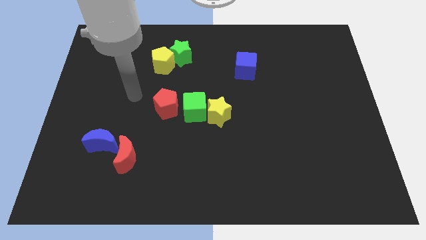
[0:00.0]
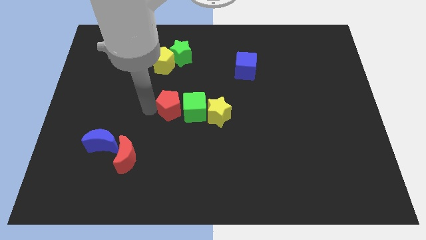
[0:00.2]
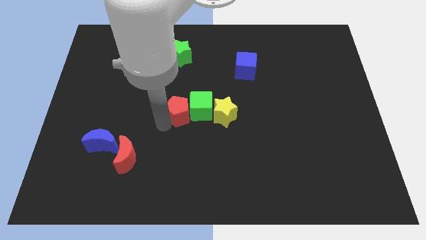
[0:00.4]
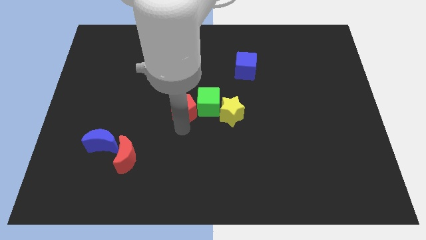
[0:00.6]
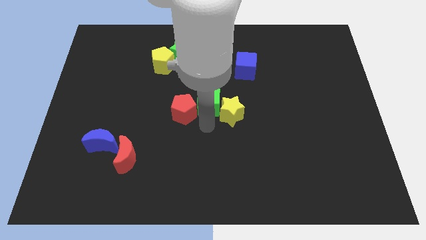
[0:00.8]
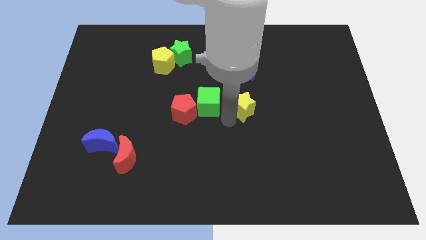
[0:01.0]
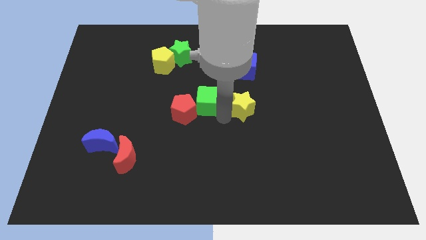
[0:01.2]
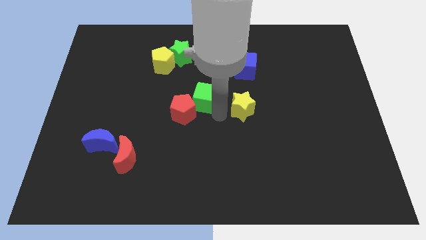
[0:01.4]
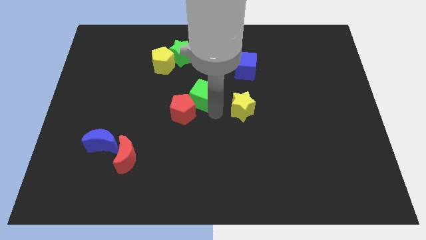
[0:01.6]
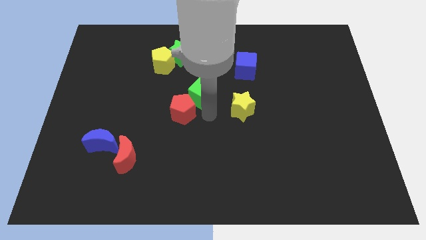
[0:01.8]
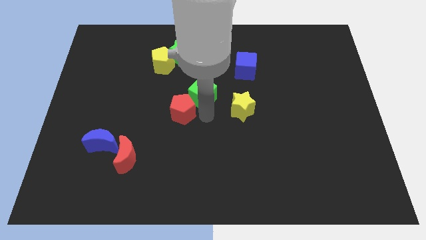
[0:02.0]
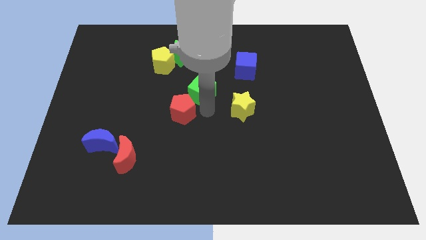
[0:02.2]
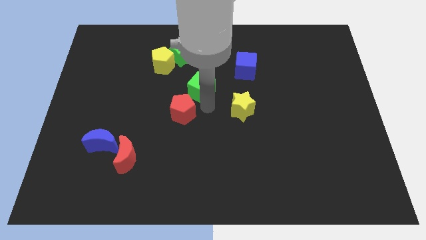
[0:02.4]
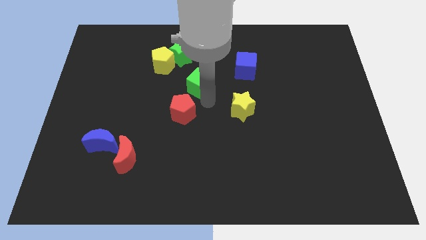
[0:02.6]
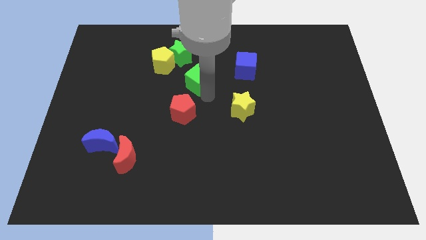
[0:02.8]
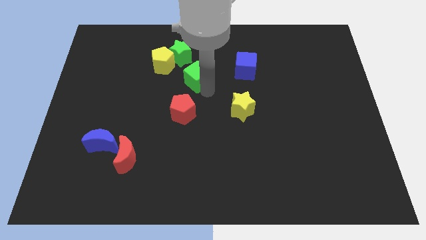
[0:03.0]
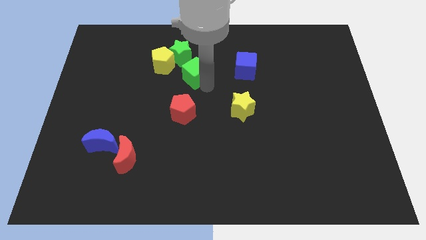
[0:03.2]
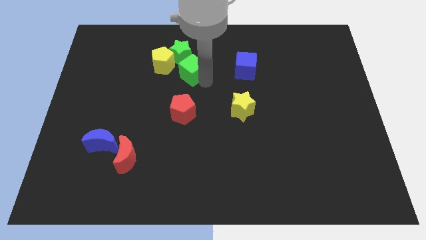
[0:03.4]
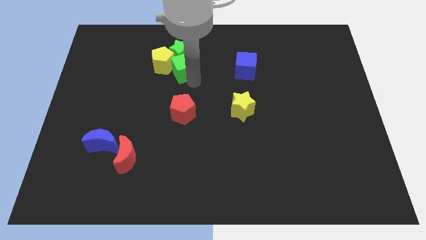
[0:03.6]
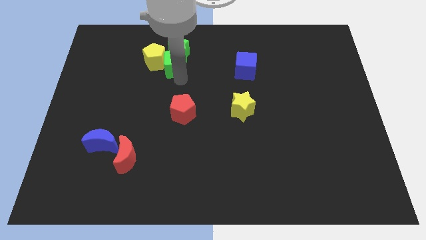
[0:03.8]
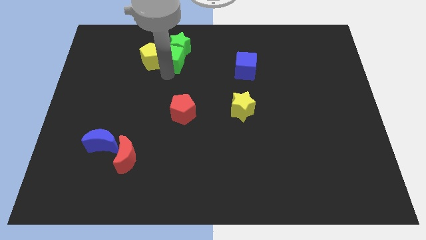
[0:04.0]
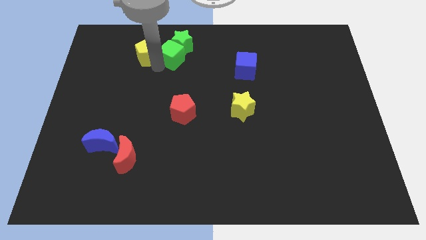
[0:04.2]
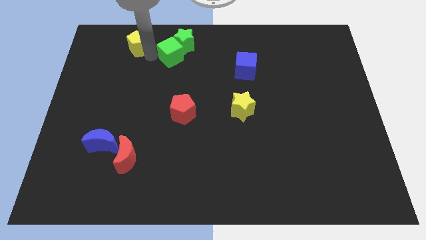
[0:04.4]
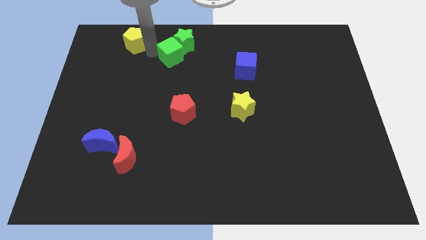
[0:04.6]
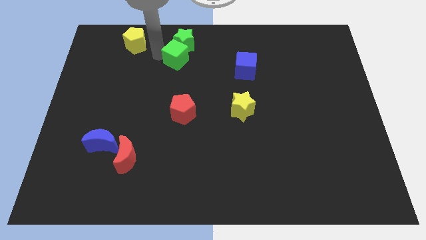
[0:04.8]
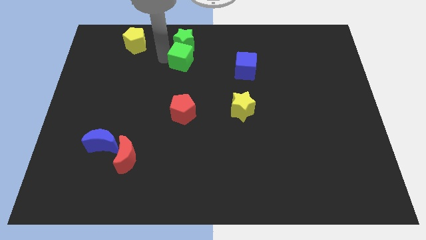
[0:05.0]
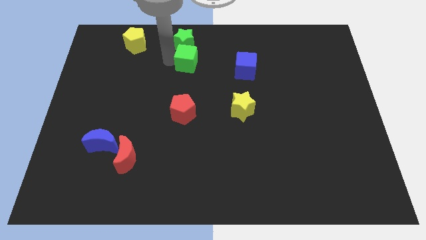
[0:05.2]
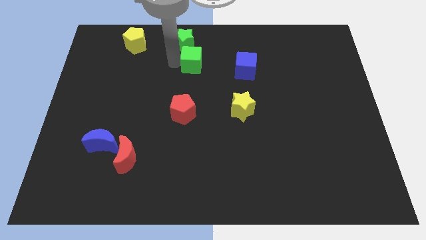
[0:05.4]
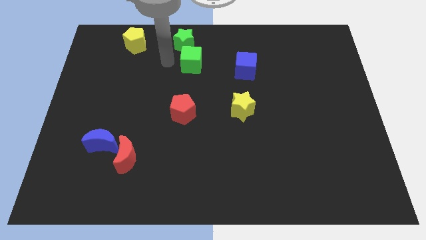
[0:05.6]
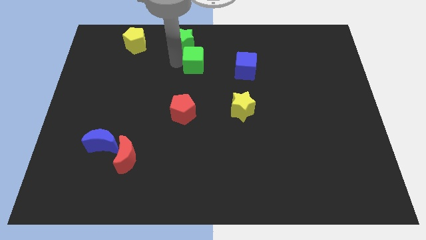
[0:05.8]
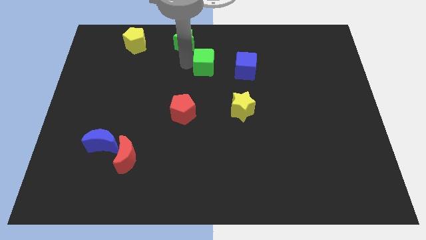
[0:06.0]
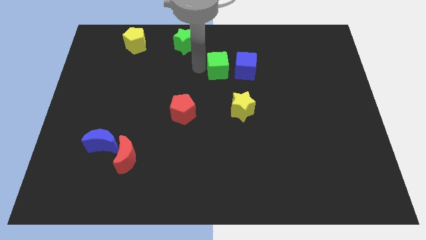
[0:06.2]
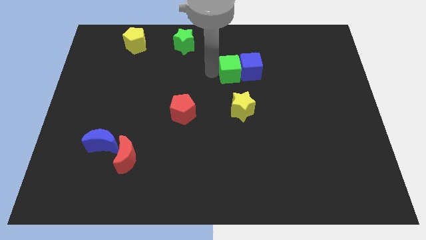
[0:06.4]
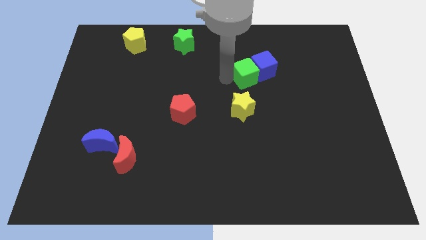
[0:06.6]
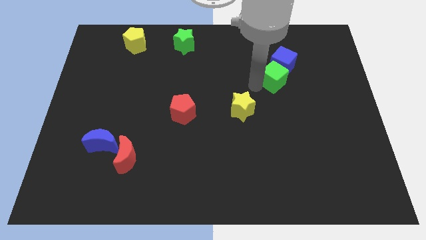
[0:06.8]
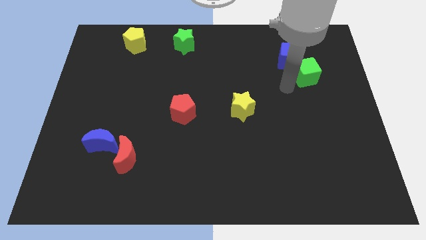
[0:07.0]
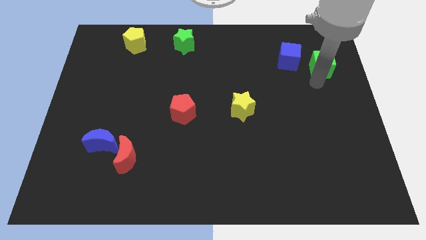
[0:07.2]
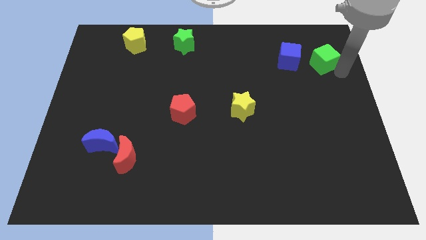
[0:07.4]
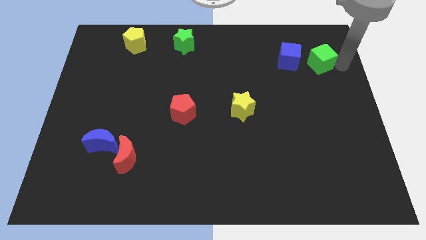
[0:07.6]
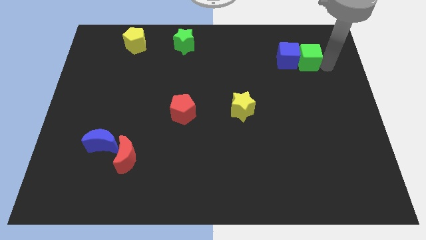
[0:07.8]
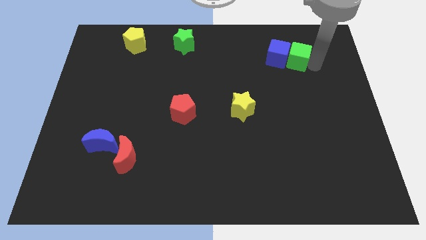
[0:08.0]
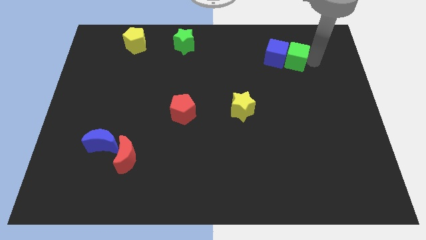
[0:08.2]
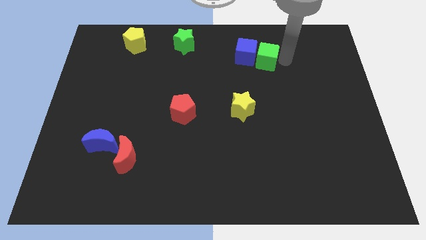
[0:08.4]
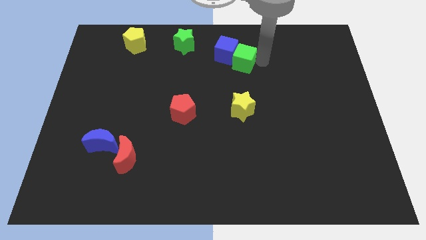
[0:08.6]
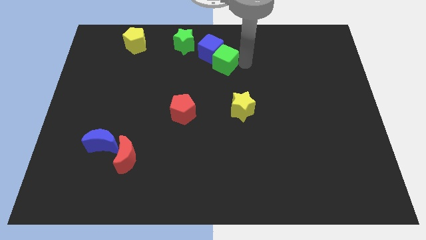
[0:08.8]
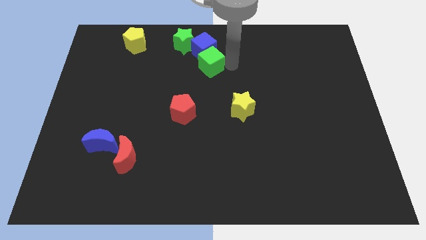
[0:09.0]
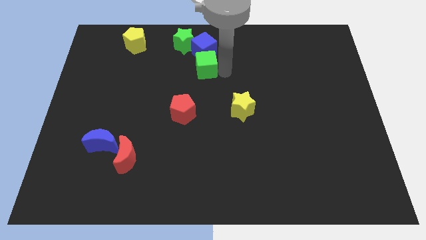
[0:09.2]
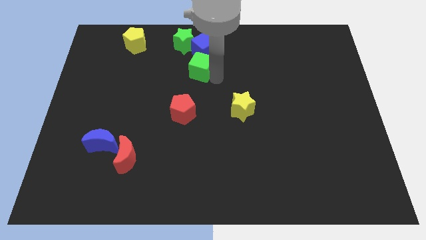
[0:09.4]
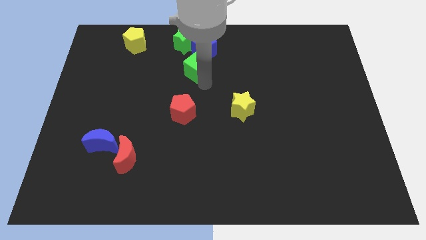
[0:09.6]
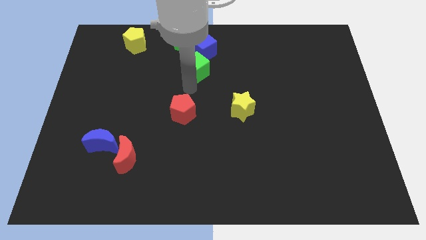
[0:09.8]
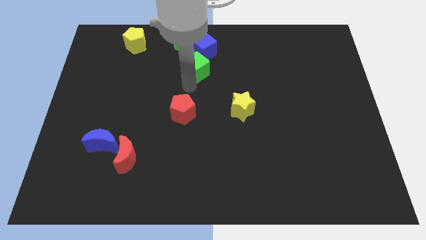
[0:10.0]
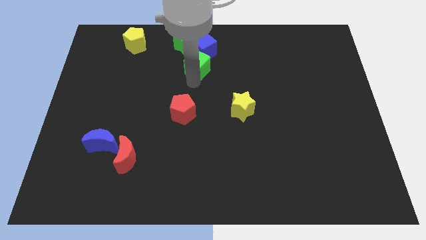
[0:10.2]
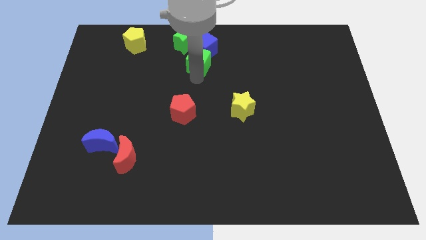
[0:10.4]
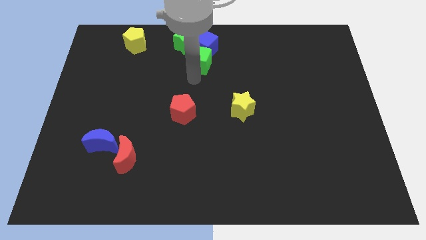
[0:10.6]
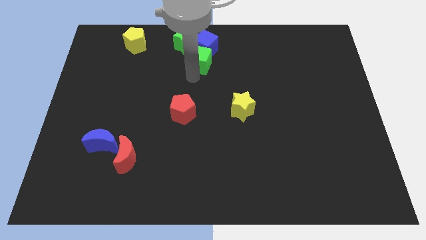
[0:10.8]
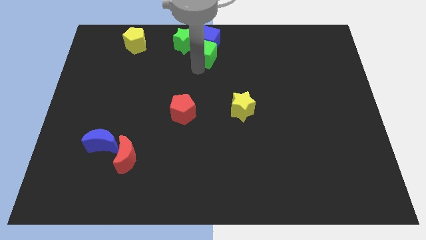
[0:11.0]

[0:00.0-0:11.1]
put the green cube to the top side

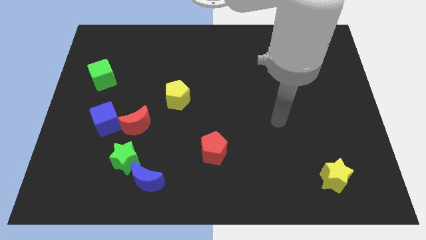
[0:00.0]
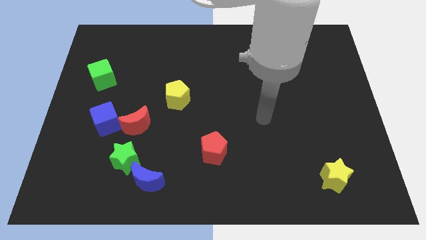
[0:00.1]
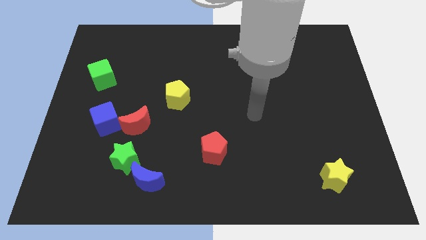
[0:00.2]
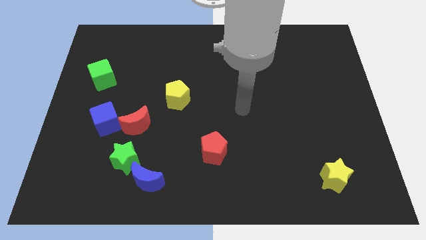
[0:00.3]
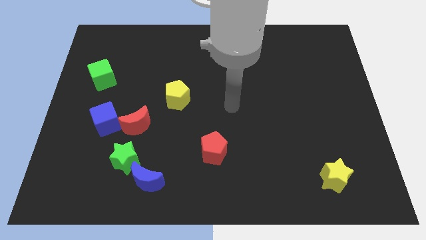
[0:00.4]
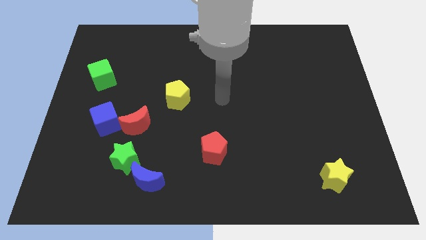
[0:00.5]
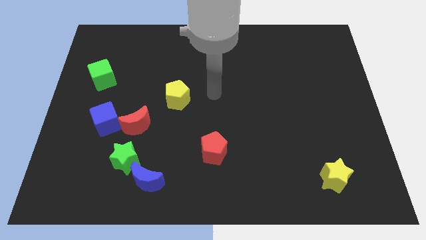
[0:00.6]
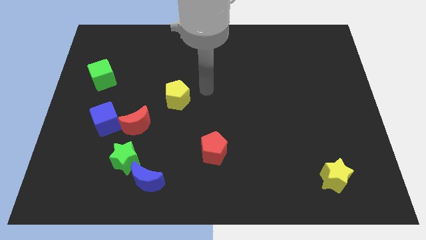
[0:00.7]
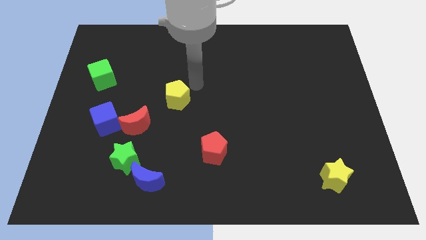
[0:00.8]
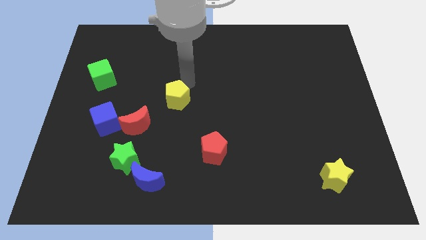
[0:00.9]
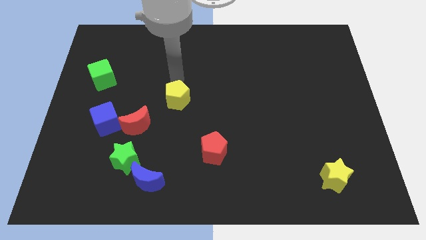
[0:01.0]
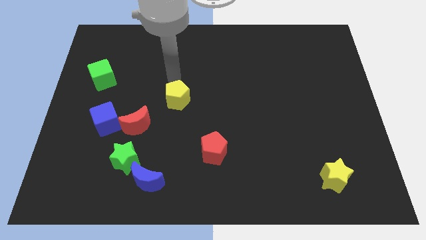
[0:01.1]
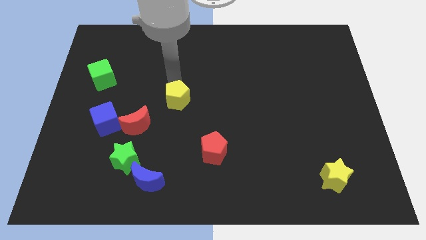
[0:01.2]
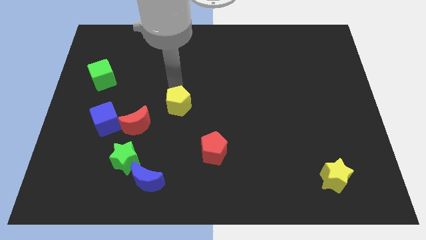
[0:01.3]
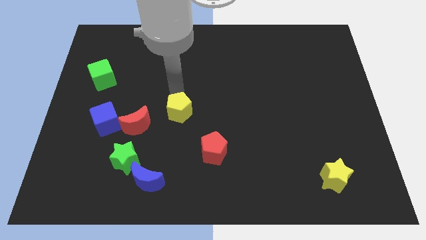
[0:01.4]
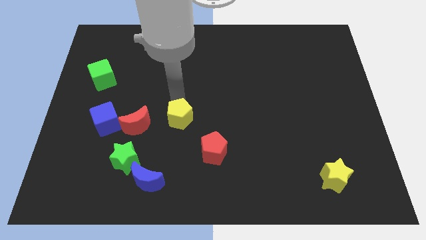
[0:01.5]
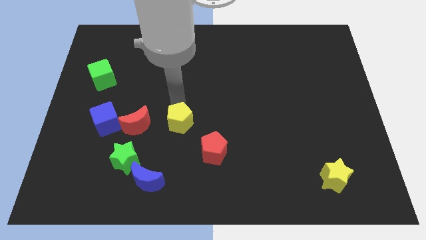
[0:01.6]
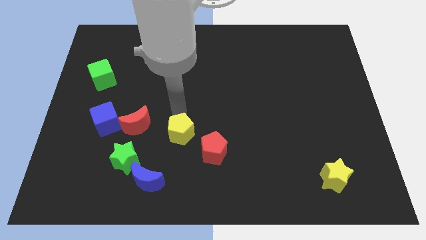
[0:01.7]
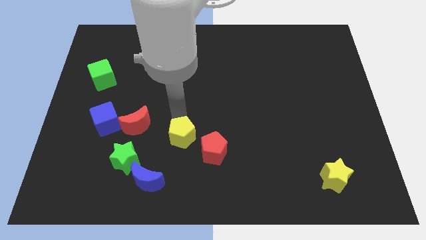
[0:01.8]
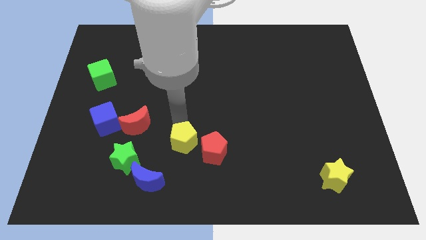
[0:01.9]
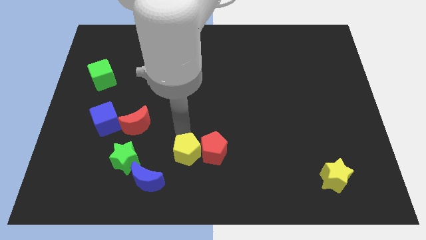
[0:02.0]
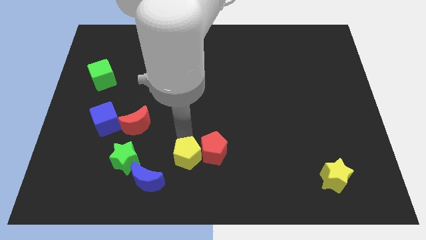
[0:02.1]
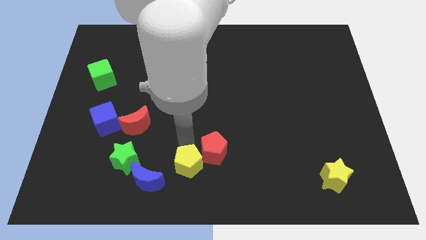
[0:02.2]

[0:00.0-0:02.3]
push the yellow pentagon to the bottom

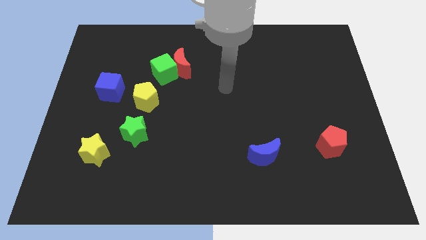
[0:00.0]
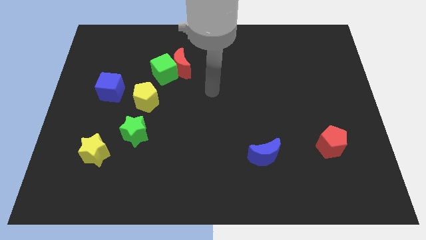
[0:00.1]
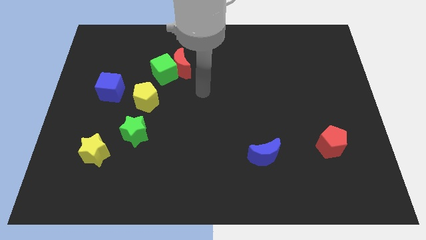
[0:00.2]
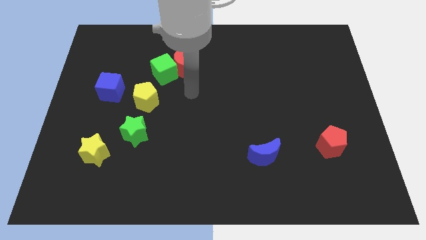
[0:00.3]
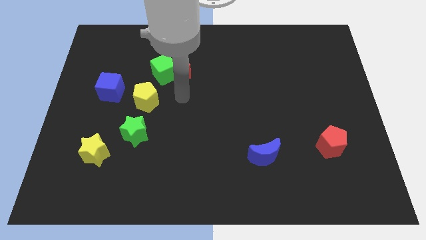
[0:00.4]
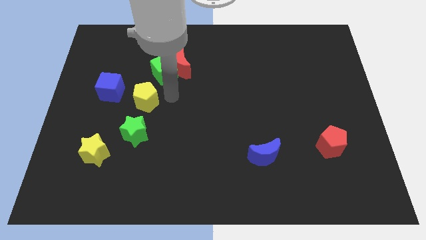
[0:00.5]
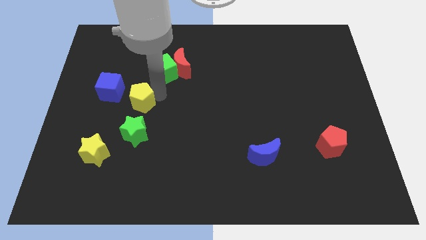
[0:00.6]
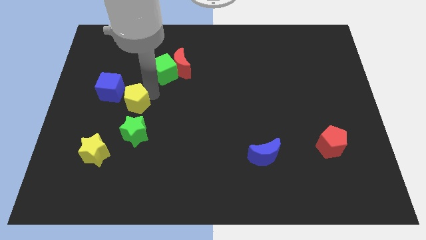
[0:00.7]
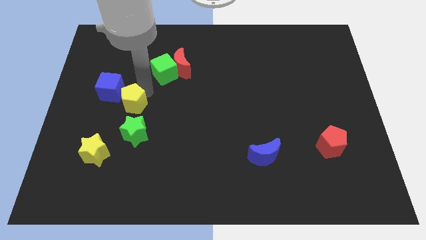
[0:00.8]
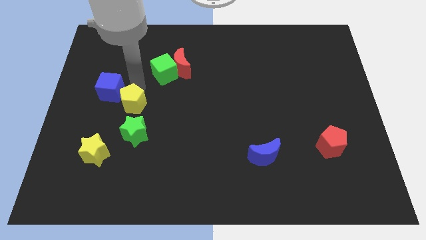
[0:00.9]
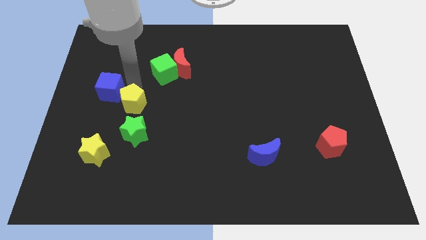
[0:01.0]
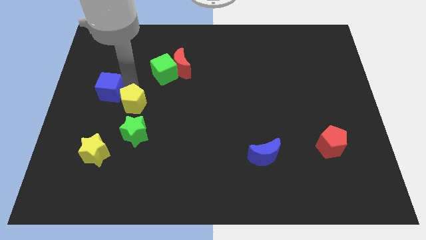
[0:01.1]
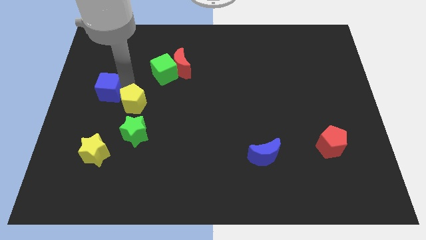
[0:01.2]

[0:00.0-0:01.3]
push the blue cube to the left side
